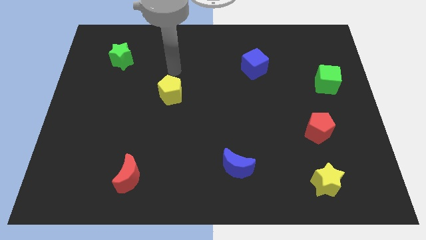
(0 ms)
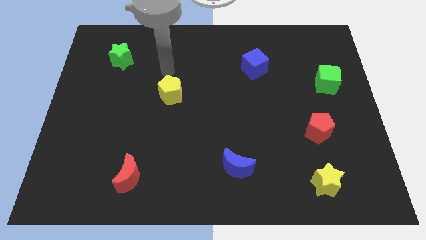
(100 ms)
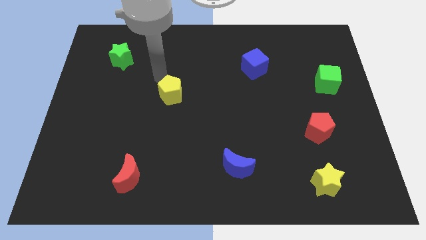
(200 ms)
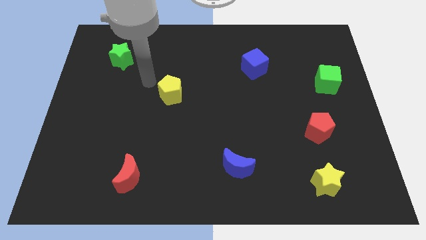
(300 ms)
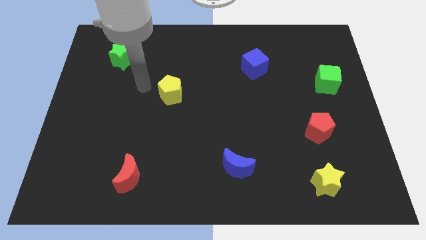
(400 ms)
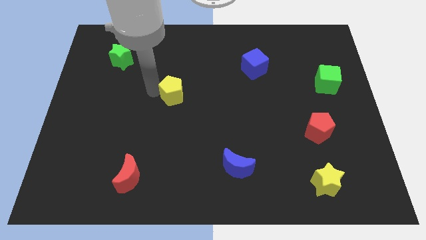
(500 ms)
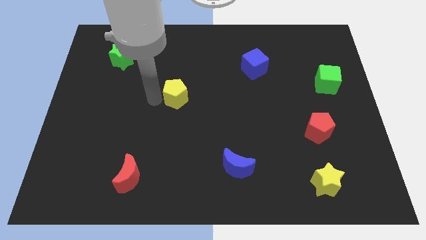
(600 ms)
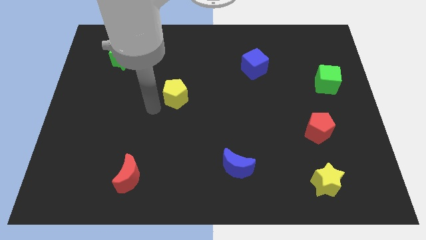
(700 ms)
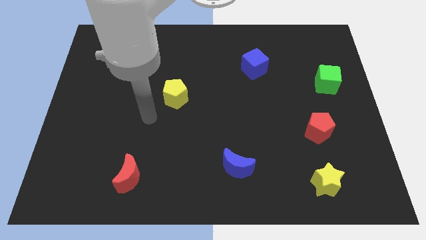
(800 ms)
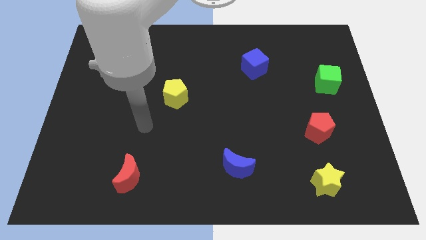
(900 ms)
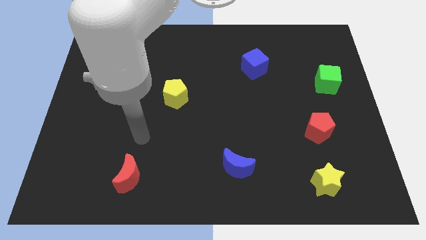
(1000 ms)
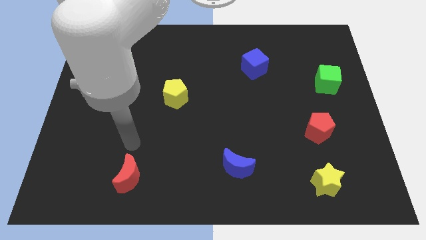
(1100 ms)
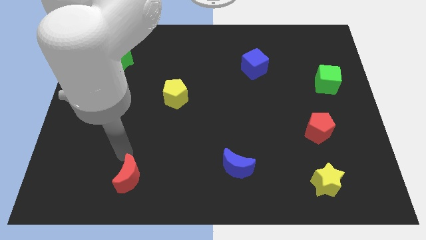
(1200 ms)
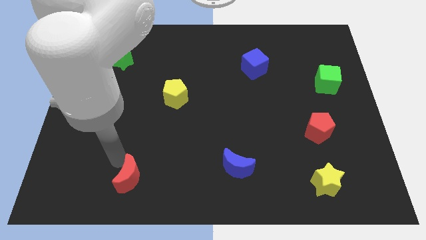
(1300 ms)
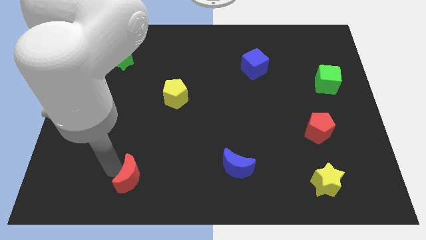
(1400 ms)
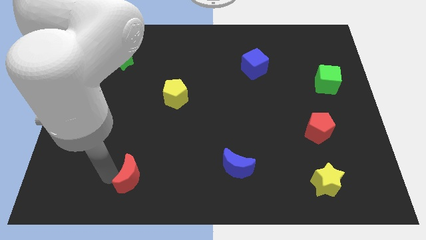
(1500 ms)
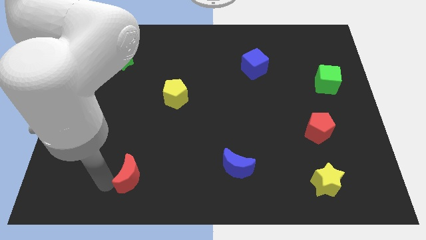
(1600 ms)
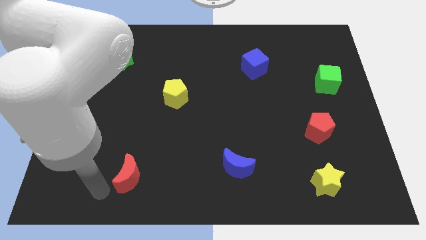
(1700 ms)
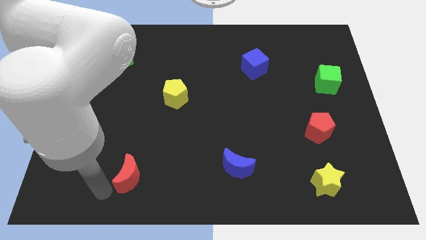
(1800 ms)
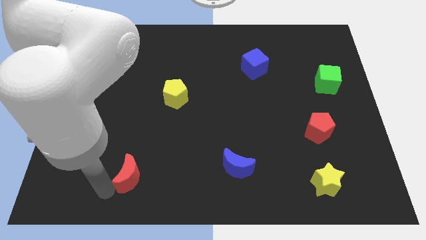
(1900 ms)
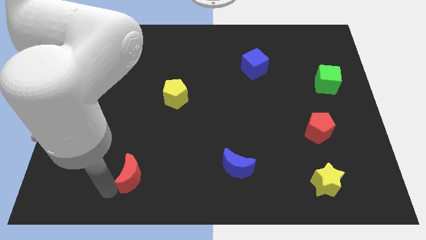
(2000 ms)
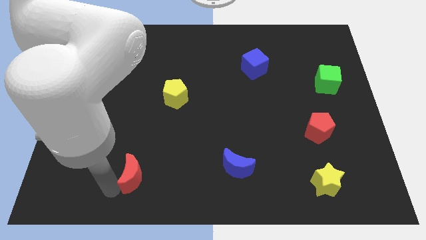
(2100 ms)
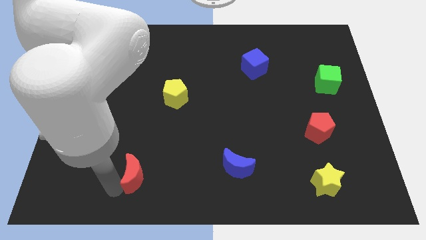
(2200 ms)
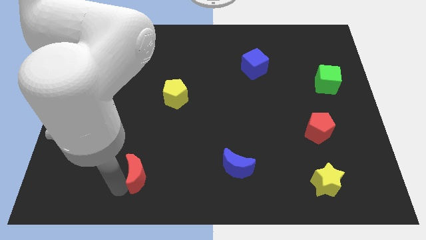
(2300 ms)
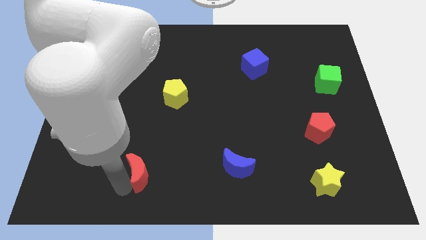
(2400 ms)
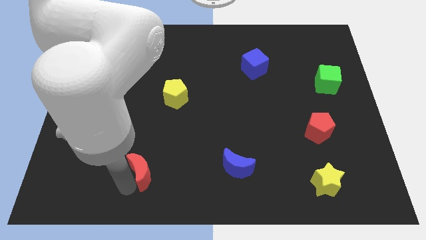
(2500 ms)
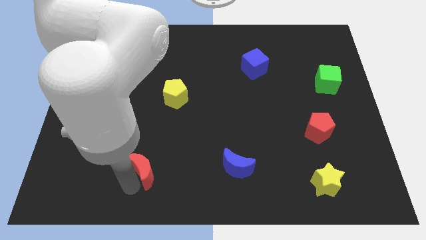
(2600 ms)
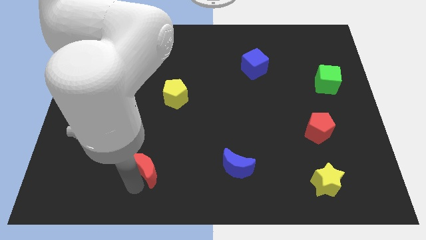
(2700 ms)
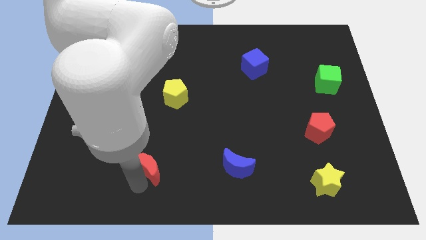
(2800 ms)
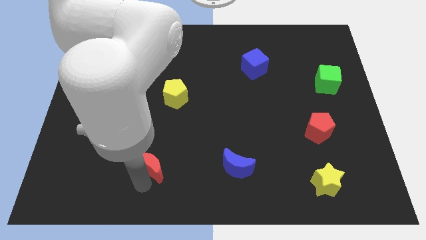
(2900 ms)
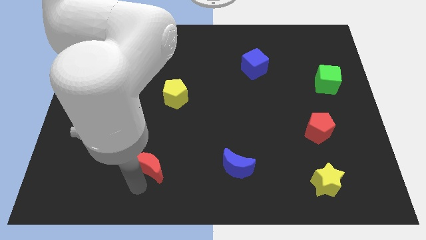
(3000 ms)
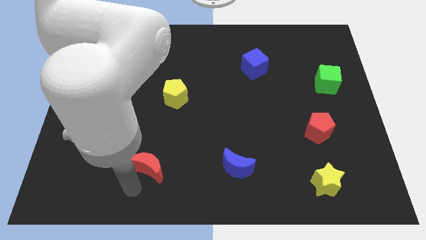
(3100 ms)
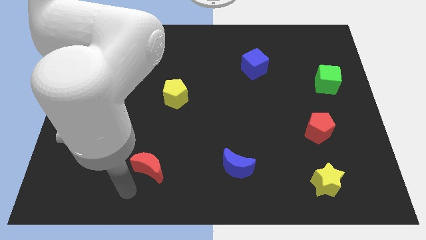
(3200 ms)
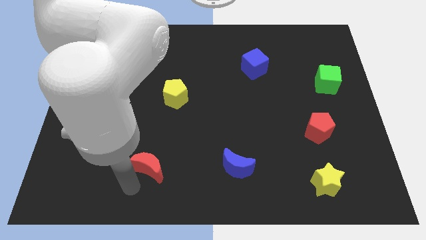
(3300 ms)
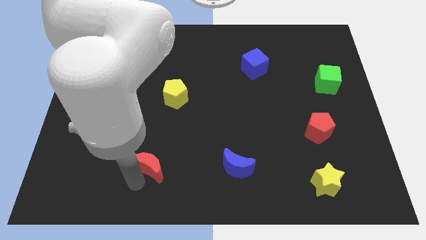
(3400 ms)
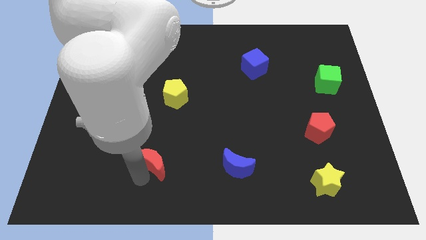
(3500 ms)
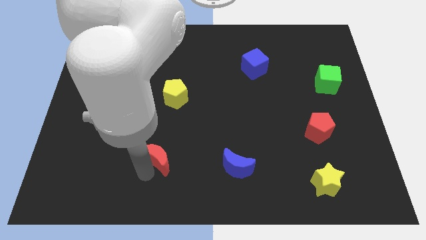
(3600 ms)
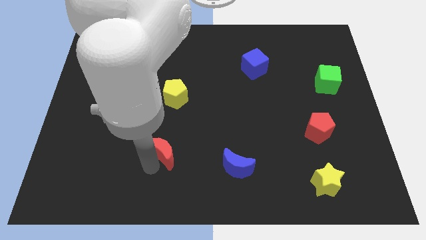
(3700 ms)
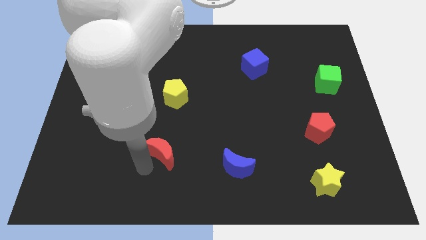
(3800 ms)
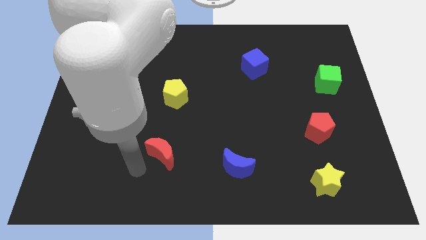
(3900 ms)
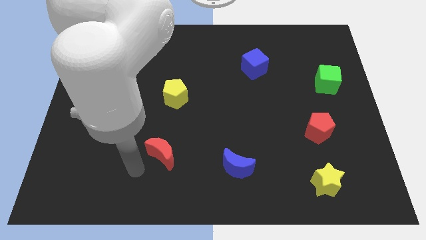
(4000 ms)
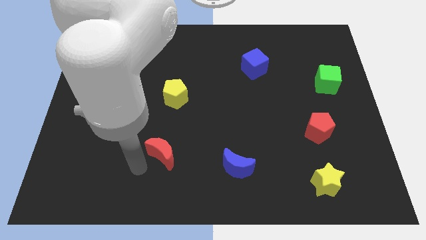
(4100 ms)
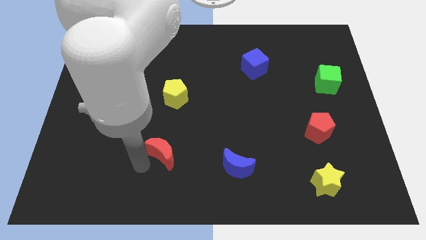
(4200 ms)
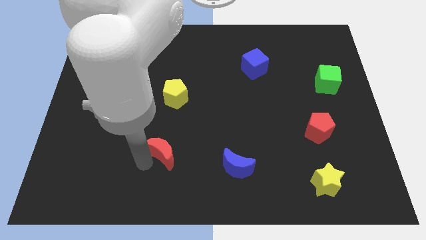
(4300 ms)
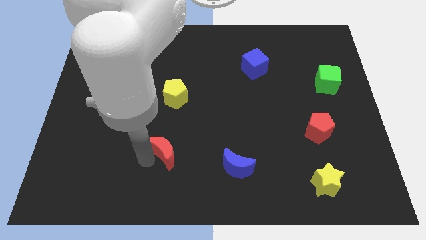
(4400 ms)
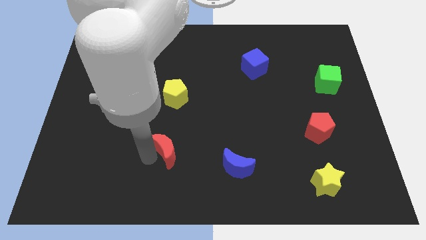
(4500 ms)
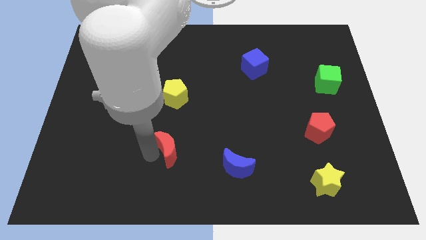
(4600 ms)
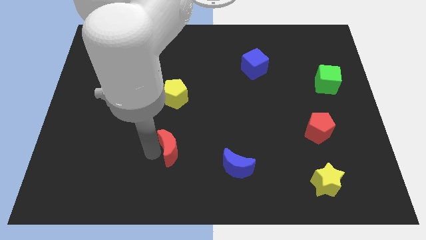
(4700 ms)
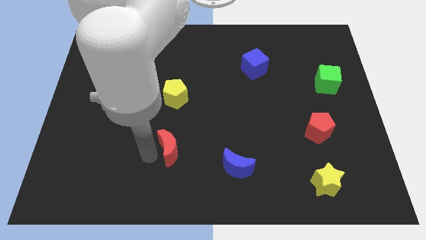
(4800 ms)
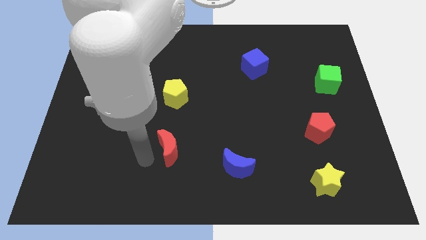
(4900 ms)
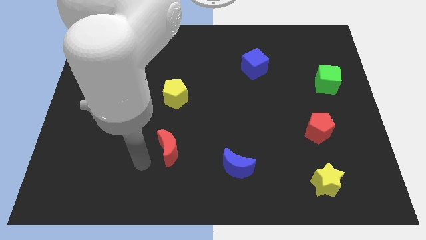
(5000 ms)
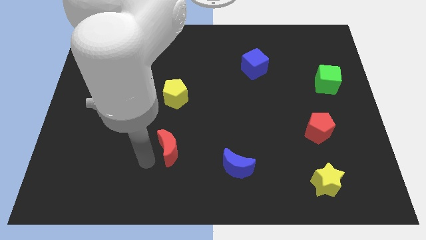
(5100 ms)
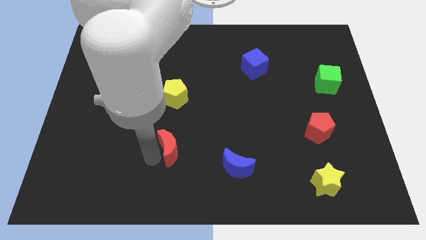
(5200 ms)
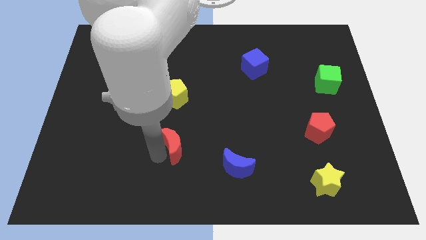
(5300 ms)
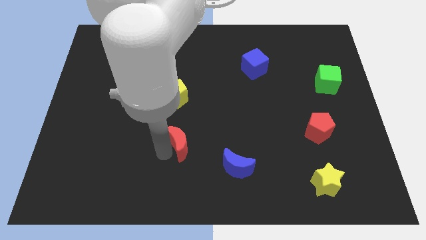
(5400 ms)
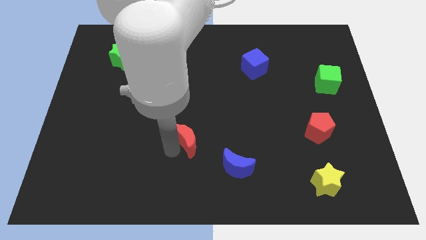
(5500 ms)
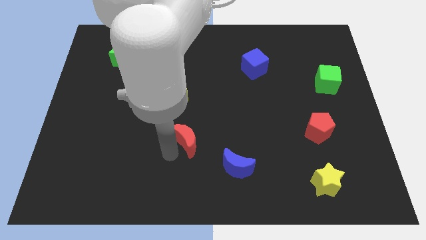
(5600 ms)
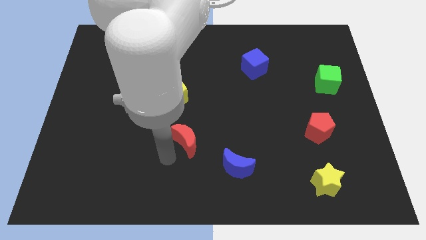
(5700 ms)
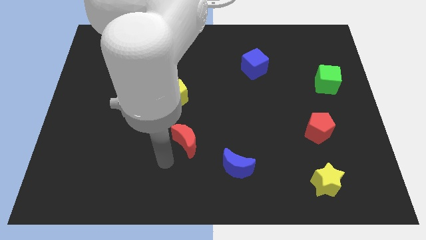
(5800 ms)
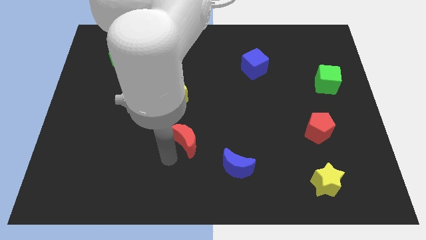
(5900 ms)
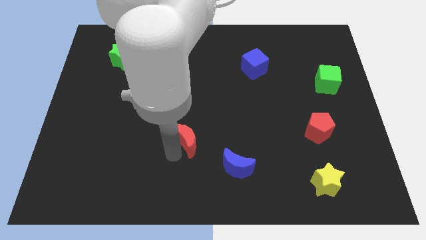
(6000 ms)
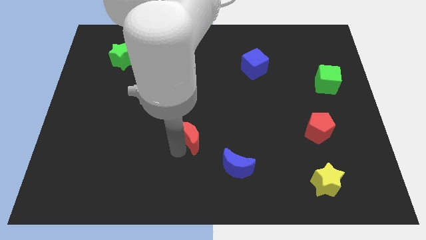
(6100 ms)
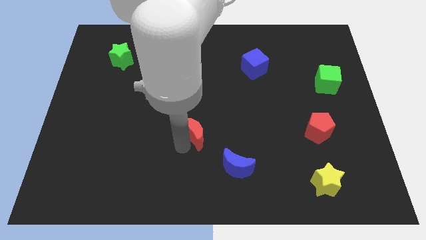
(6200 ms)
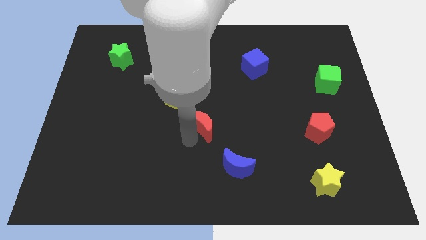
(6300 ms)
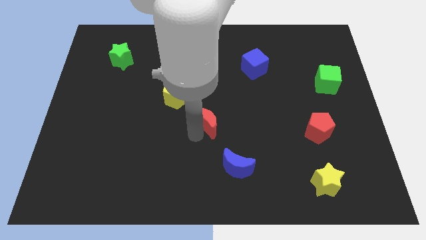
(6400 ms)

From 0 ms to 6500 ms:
push the red moon diagonally upwards and to the right

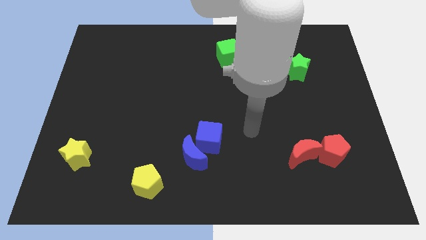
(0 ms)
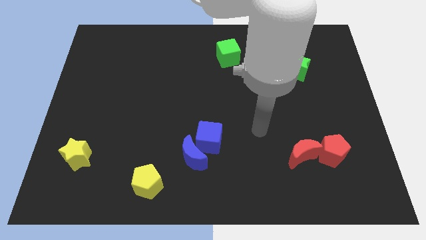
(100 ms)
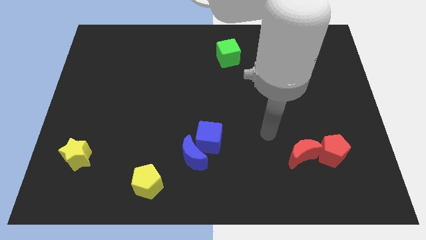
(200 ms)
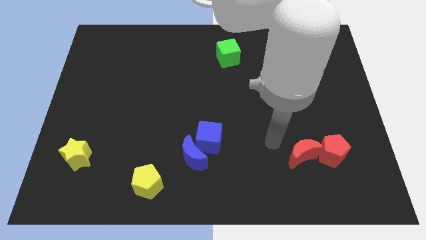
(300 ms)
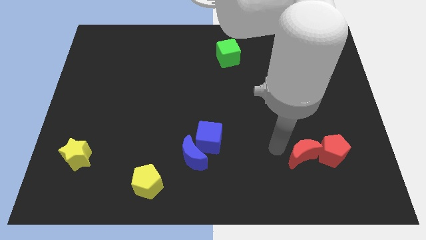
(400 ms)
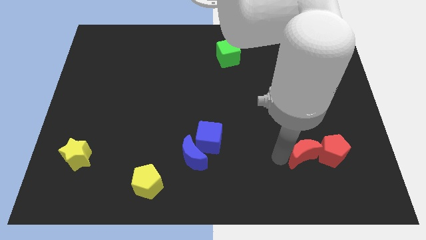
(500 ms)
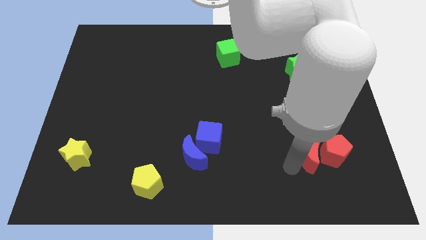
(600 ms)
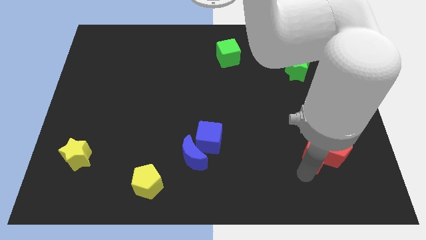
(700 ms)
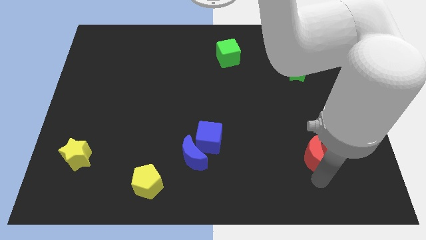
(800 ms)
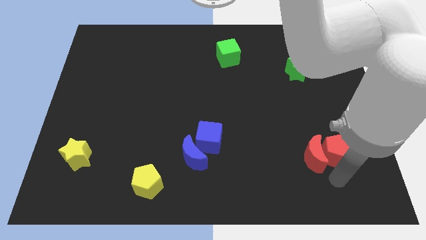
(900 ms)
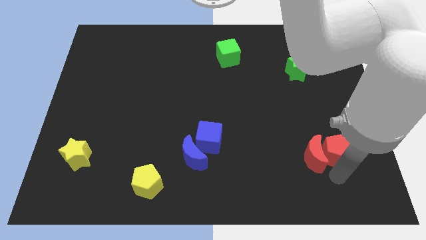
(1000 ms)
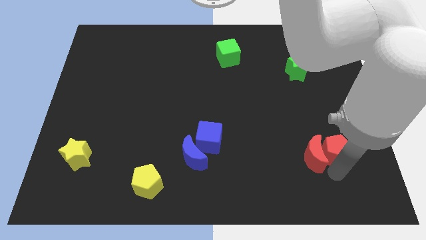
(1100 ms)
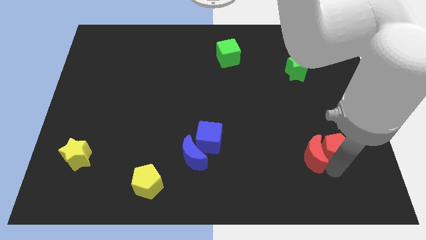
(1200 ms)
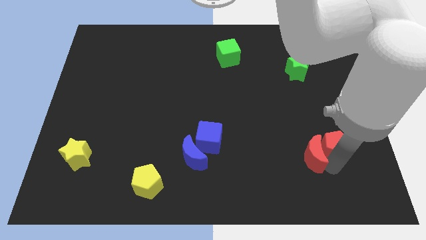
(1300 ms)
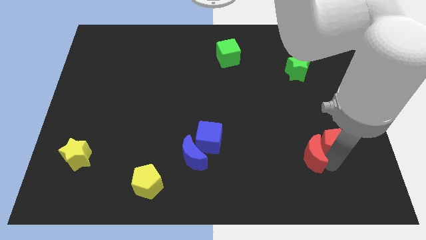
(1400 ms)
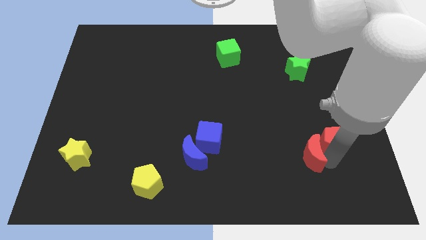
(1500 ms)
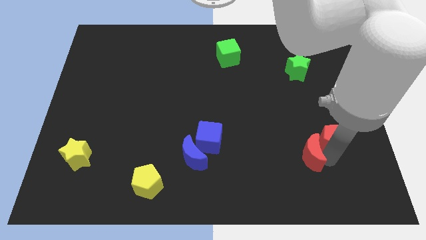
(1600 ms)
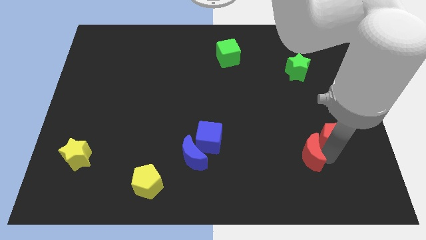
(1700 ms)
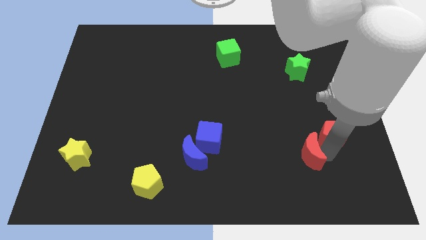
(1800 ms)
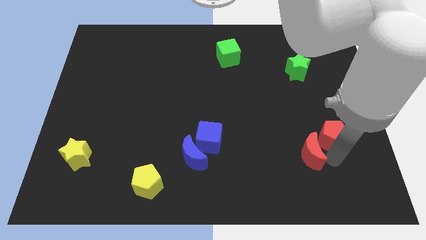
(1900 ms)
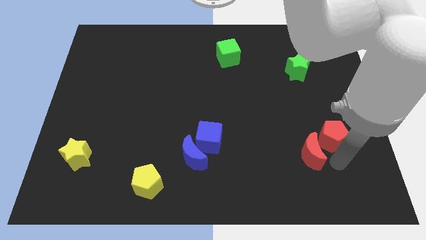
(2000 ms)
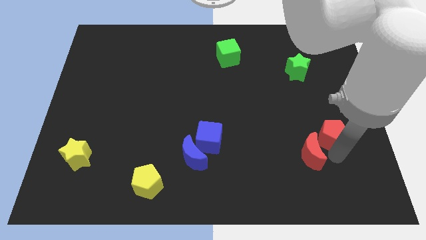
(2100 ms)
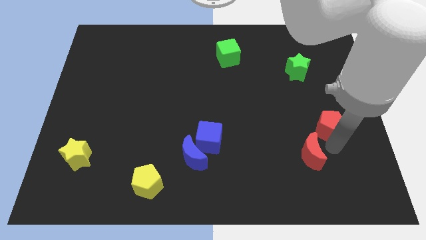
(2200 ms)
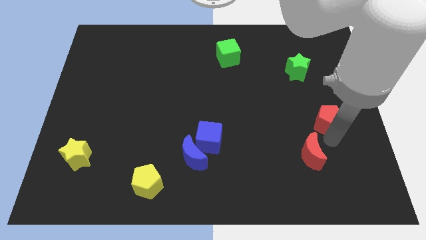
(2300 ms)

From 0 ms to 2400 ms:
move the red pentagon up slightly
